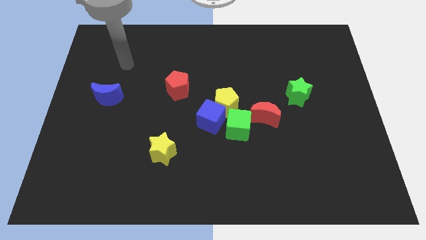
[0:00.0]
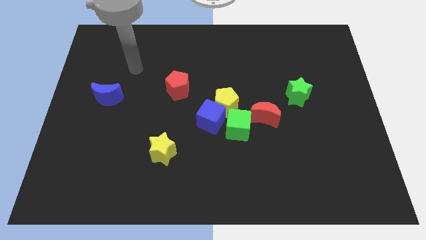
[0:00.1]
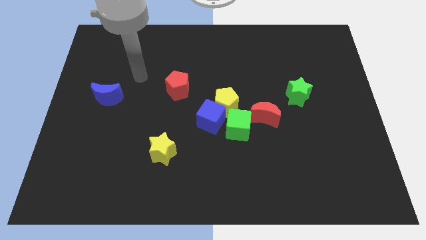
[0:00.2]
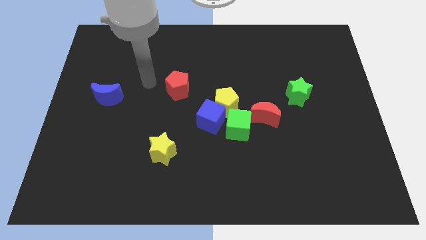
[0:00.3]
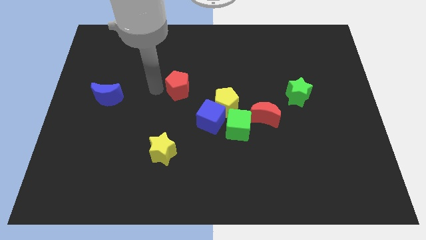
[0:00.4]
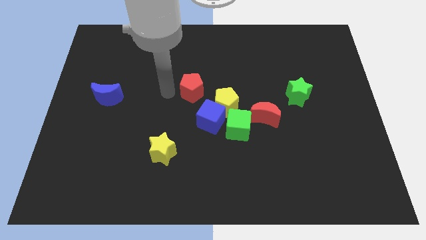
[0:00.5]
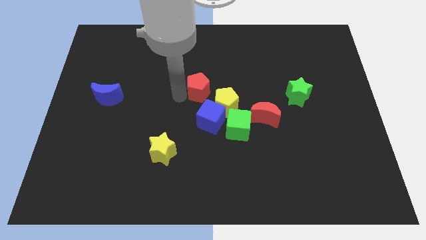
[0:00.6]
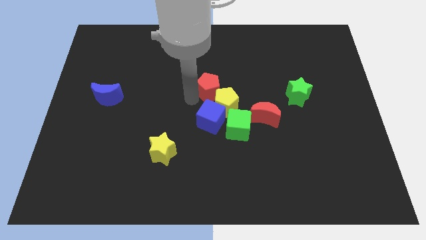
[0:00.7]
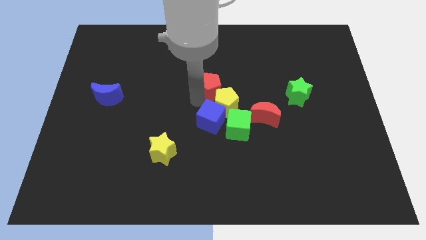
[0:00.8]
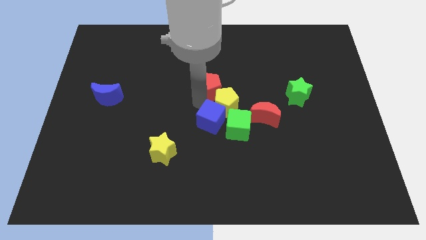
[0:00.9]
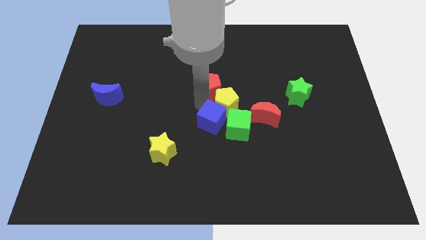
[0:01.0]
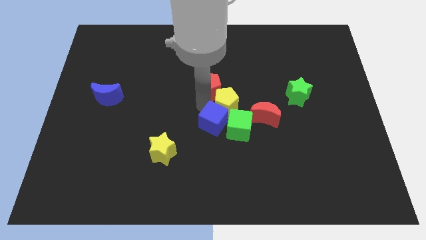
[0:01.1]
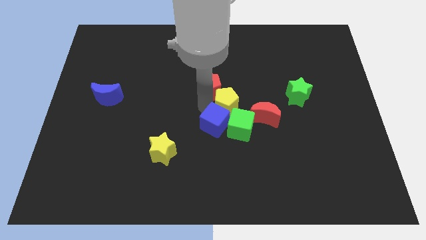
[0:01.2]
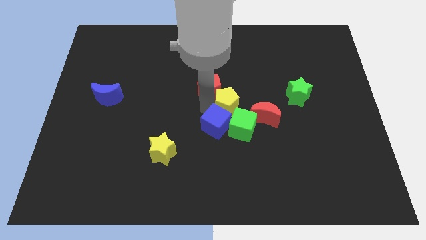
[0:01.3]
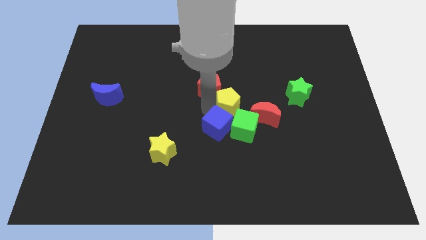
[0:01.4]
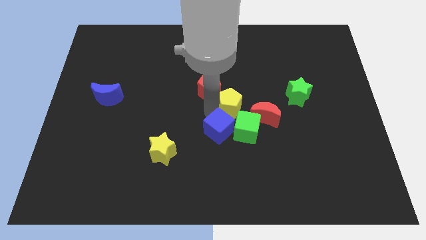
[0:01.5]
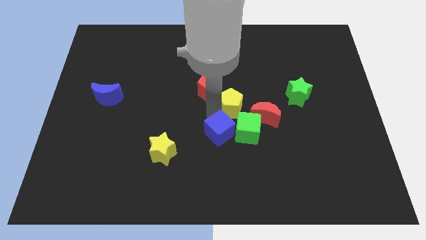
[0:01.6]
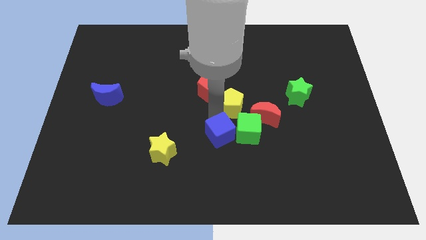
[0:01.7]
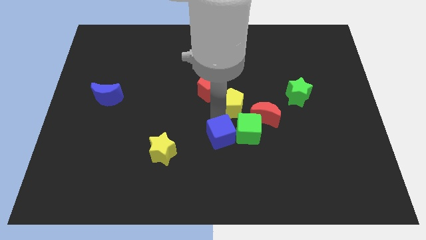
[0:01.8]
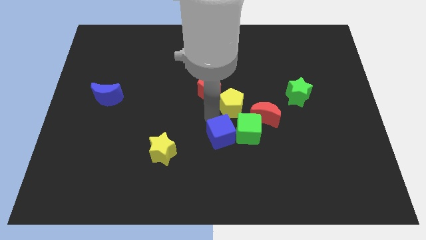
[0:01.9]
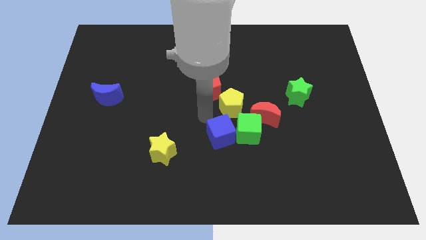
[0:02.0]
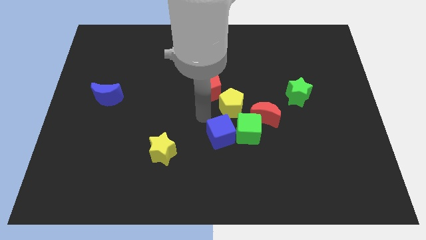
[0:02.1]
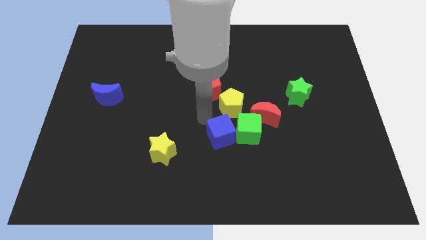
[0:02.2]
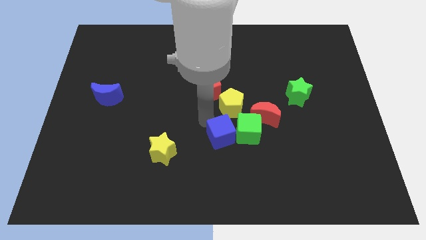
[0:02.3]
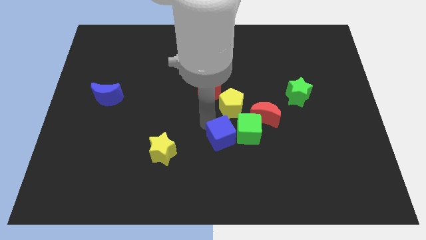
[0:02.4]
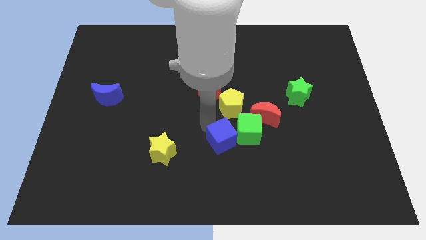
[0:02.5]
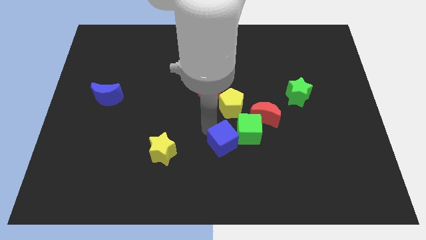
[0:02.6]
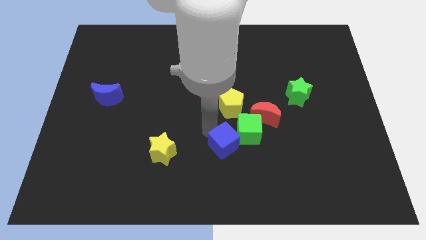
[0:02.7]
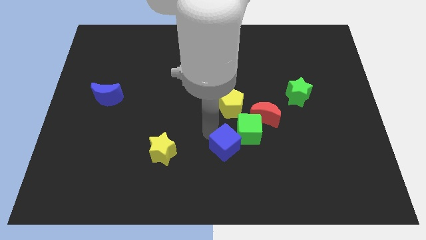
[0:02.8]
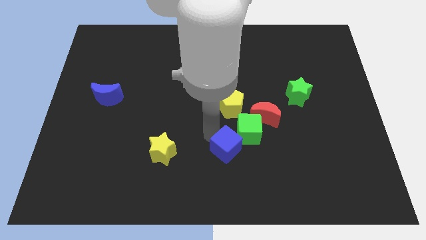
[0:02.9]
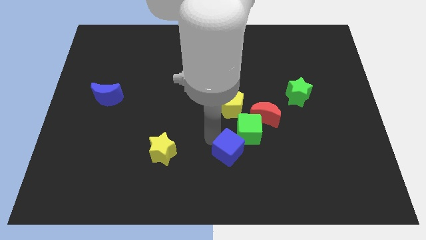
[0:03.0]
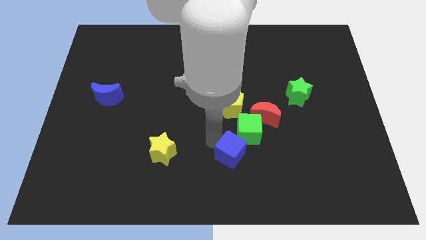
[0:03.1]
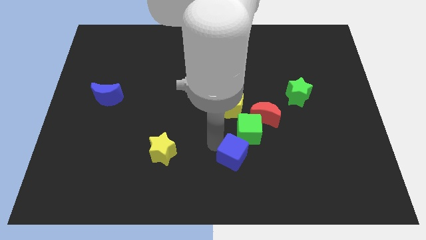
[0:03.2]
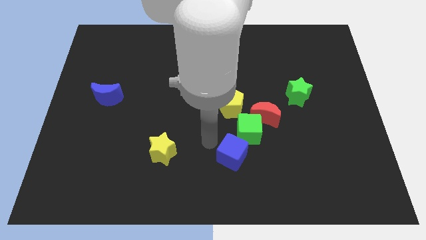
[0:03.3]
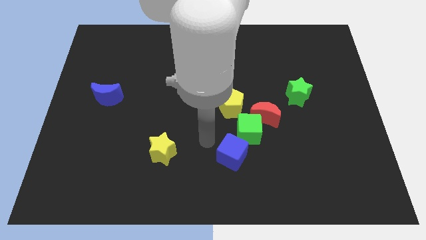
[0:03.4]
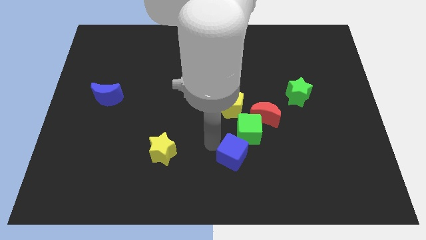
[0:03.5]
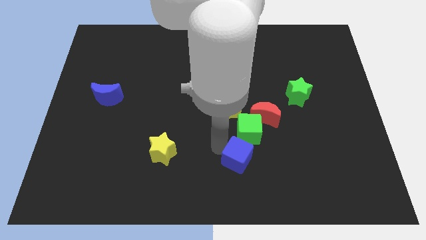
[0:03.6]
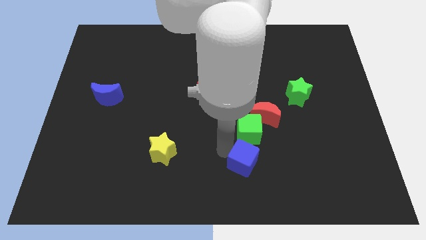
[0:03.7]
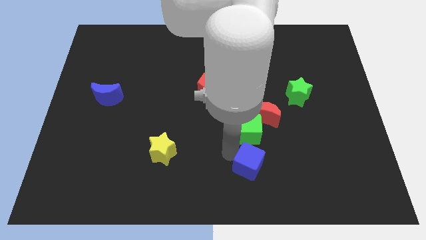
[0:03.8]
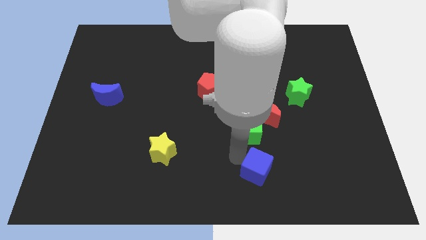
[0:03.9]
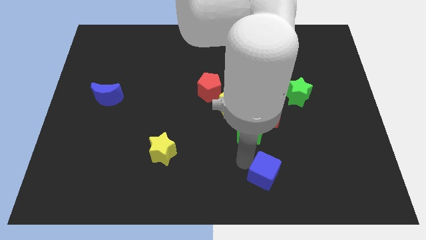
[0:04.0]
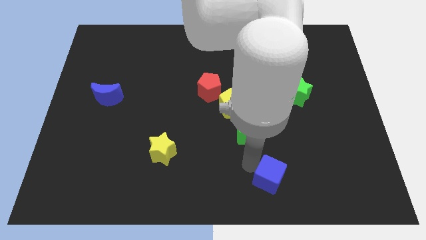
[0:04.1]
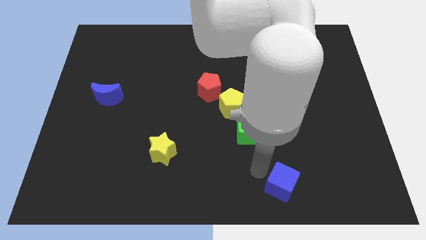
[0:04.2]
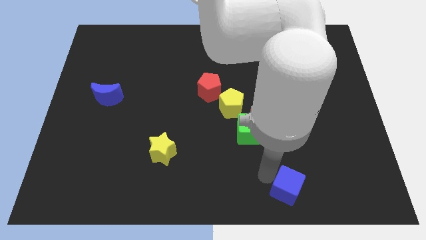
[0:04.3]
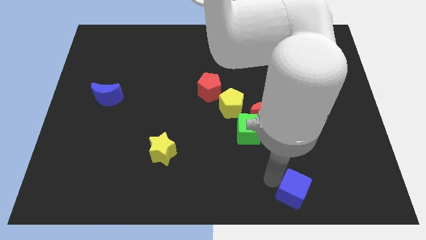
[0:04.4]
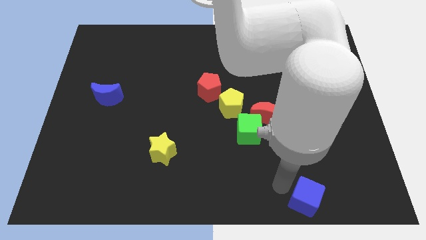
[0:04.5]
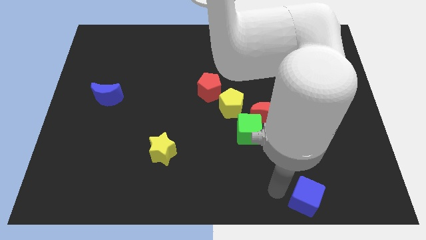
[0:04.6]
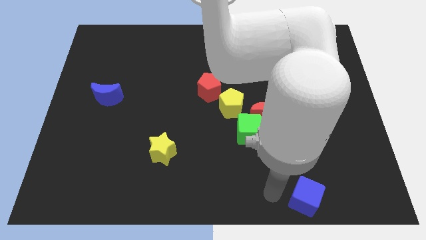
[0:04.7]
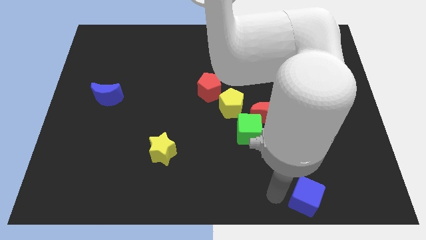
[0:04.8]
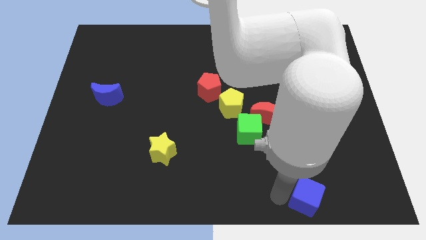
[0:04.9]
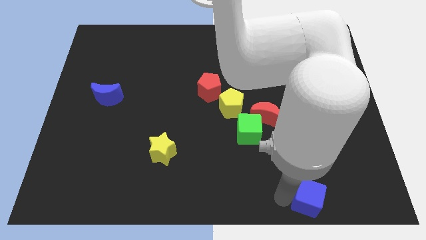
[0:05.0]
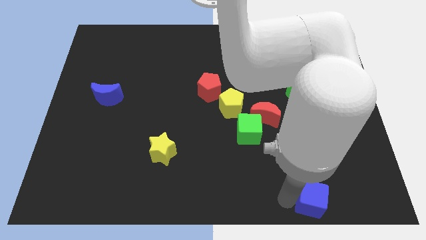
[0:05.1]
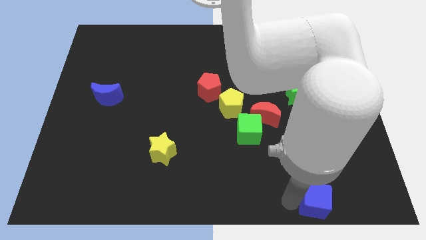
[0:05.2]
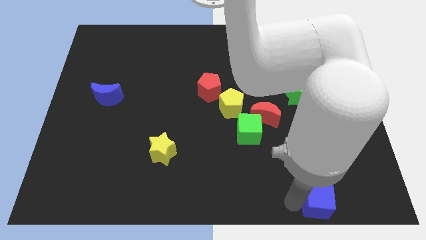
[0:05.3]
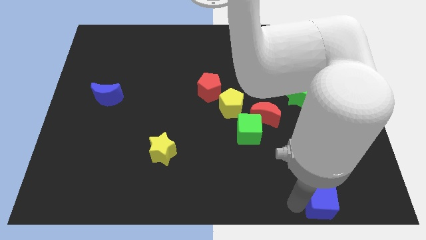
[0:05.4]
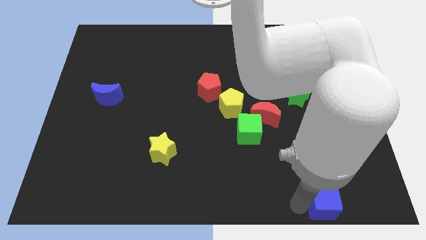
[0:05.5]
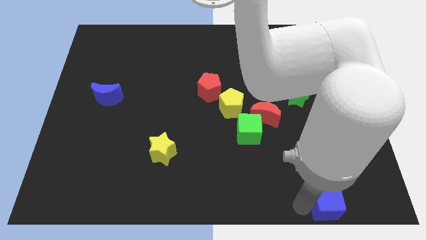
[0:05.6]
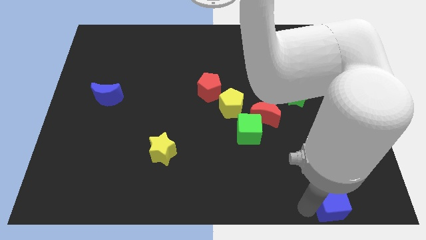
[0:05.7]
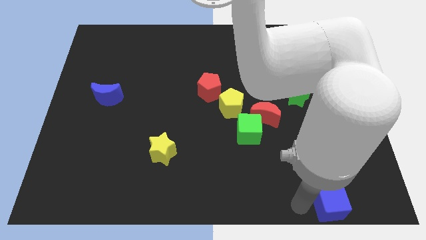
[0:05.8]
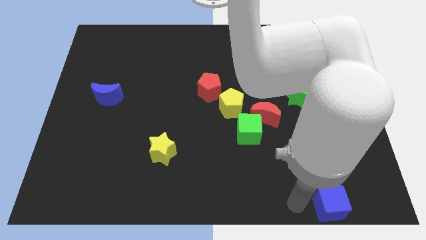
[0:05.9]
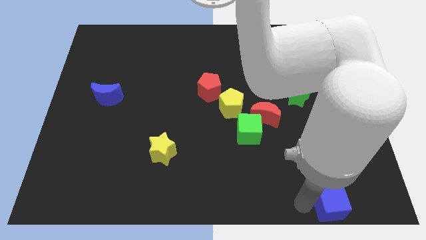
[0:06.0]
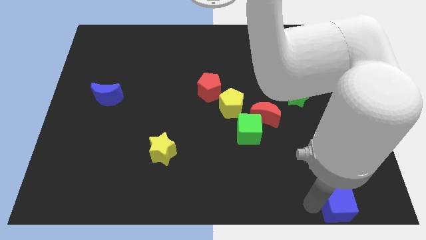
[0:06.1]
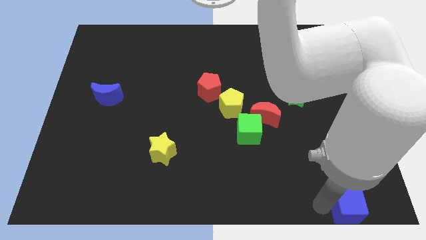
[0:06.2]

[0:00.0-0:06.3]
move the blue cube to the bottom right corner

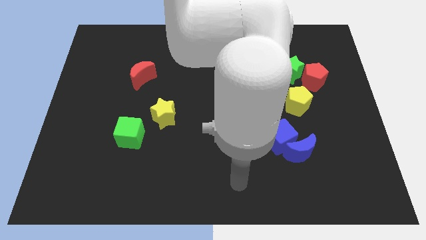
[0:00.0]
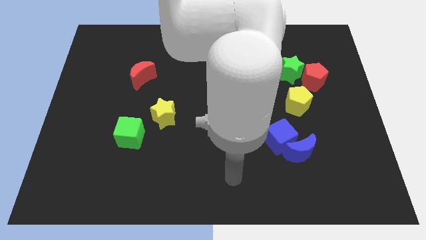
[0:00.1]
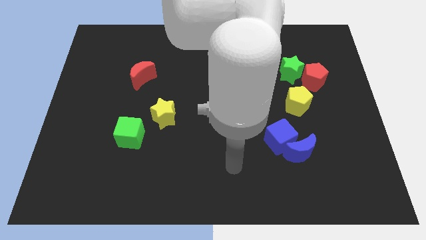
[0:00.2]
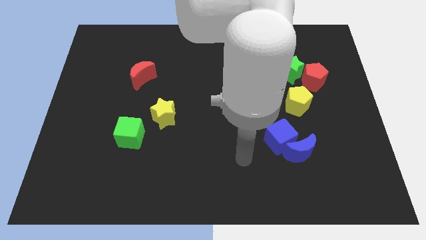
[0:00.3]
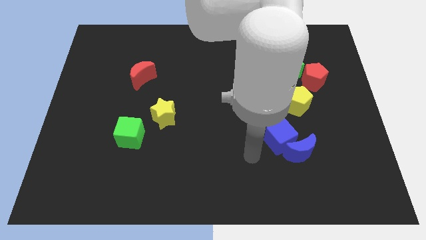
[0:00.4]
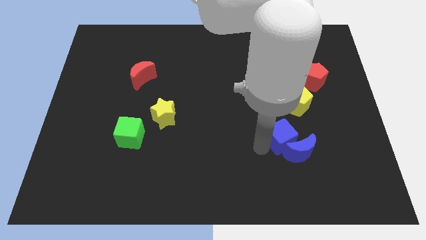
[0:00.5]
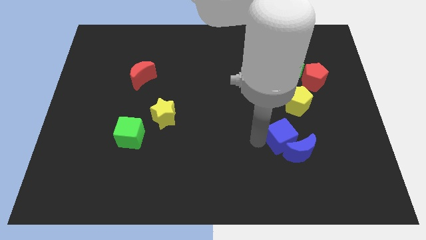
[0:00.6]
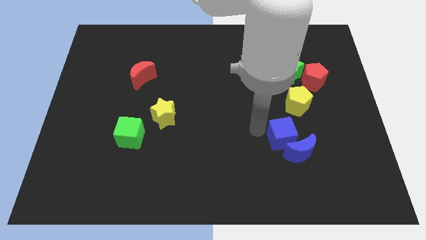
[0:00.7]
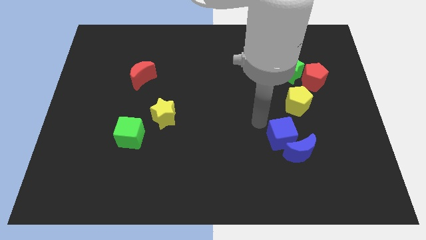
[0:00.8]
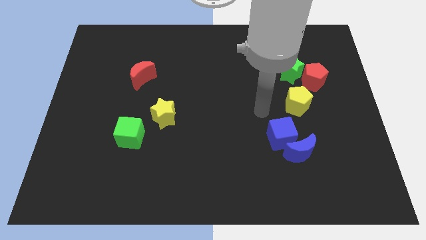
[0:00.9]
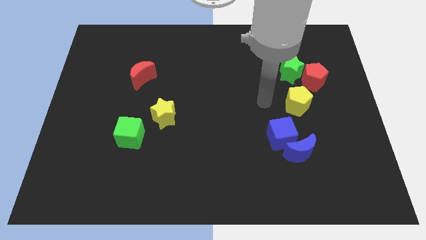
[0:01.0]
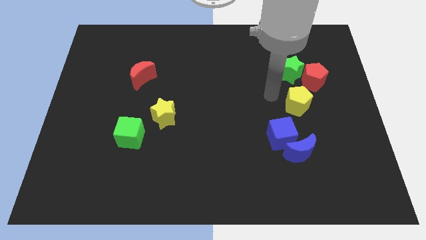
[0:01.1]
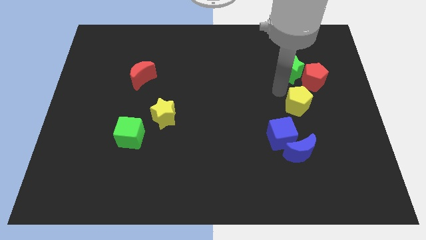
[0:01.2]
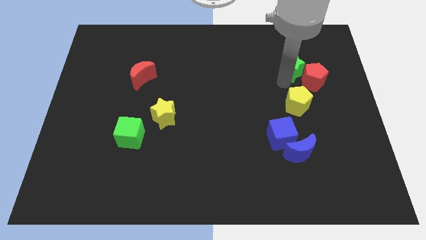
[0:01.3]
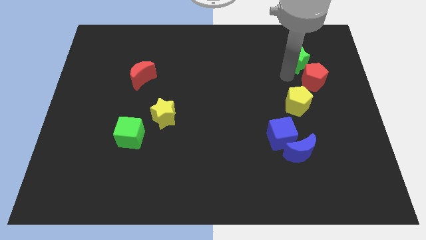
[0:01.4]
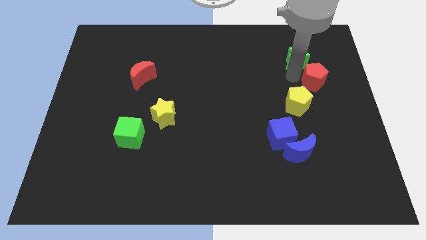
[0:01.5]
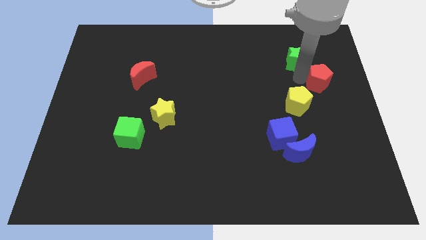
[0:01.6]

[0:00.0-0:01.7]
move the red pentagon to the right side of the board
